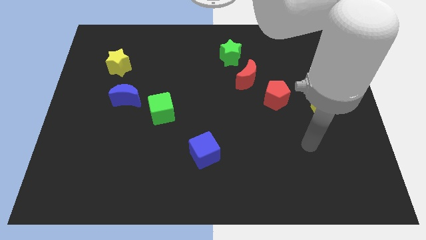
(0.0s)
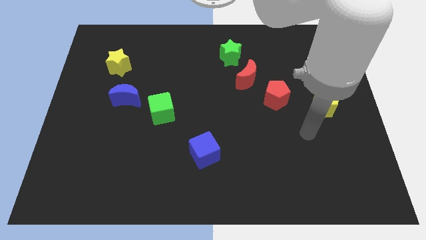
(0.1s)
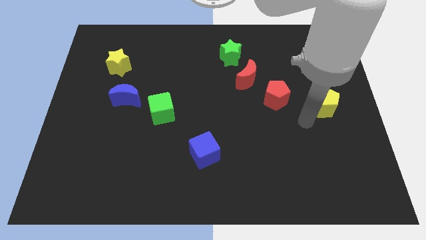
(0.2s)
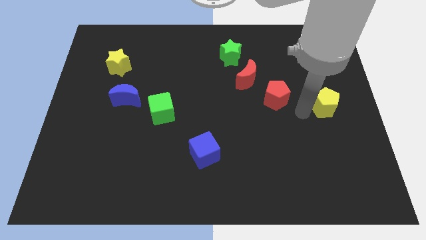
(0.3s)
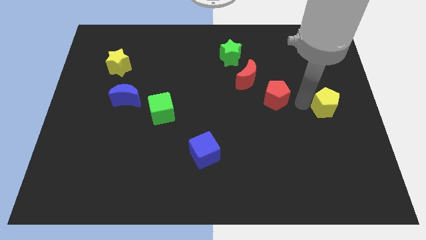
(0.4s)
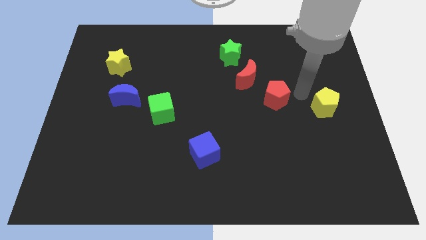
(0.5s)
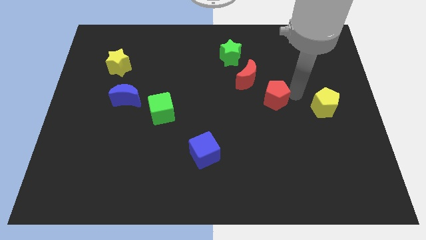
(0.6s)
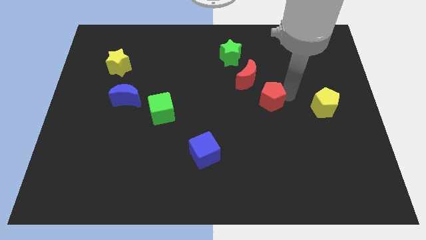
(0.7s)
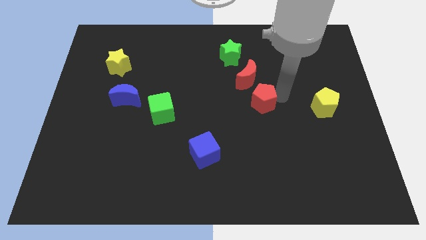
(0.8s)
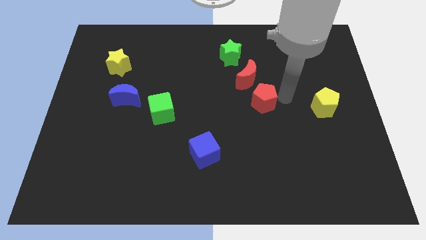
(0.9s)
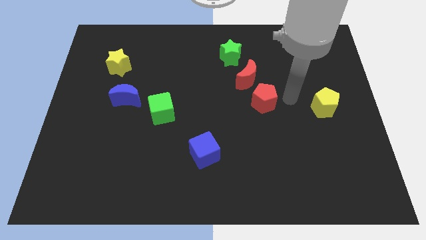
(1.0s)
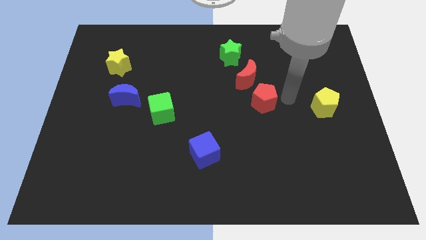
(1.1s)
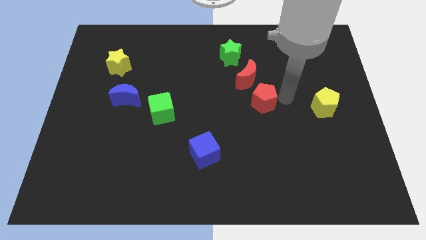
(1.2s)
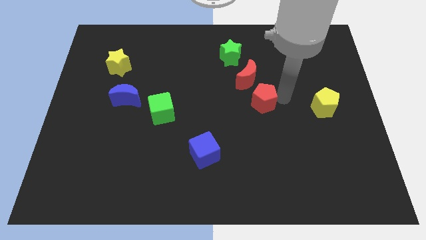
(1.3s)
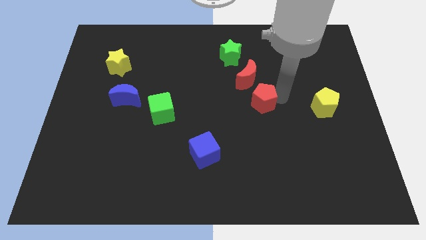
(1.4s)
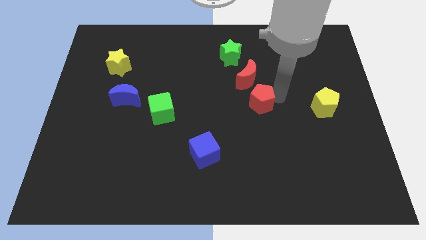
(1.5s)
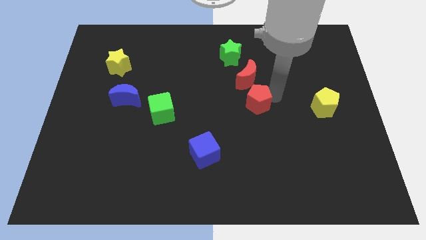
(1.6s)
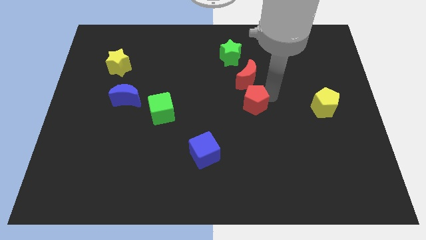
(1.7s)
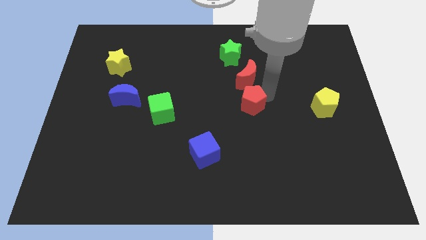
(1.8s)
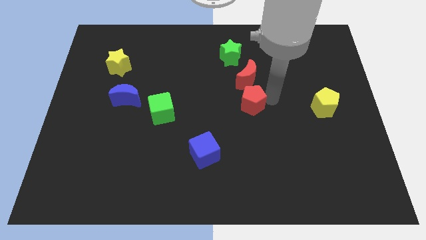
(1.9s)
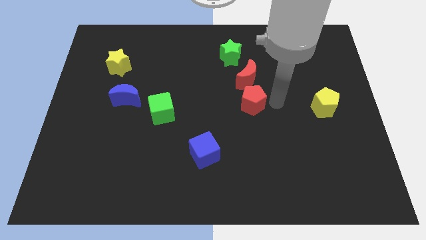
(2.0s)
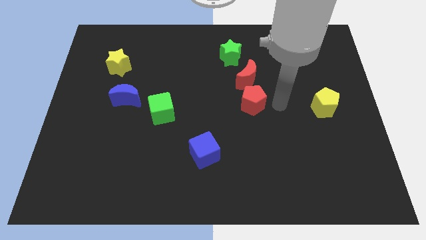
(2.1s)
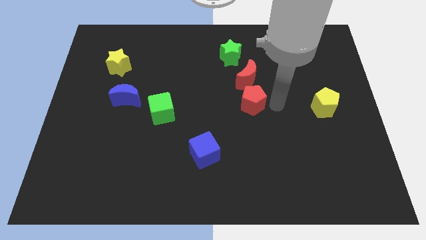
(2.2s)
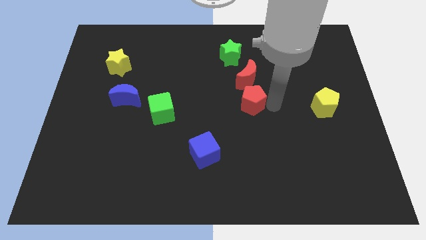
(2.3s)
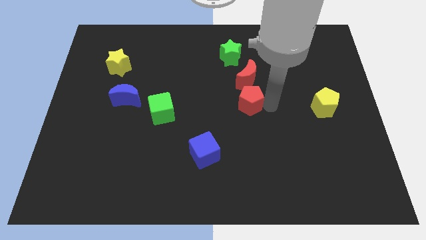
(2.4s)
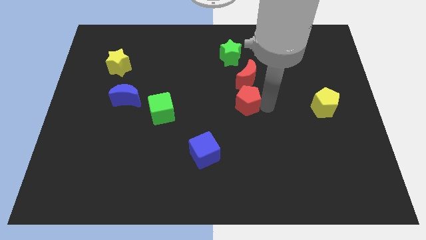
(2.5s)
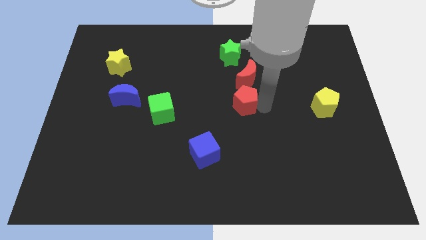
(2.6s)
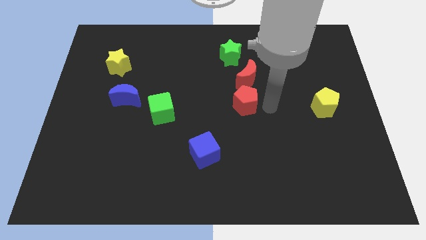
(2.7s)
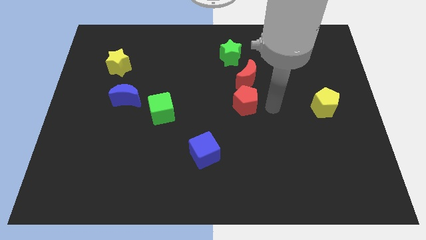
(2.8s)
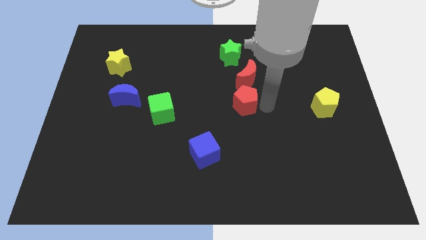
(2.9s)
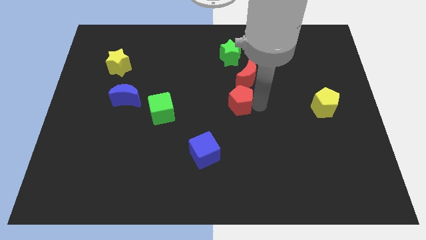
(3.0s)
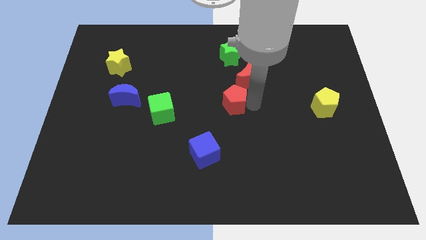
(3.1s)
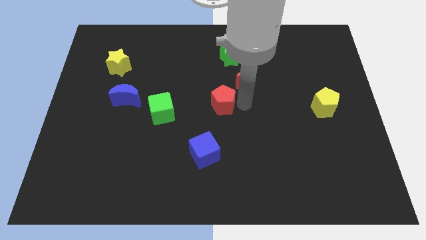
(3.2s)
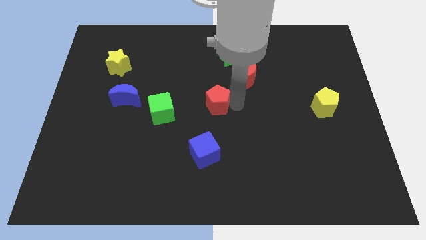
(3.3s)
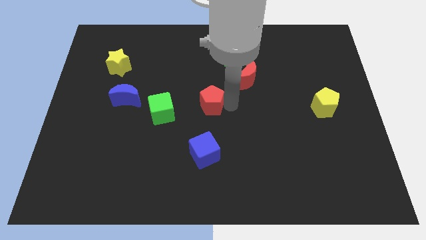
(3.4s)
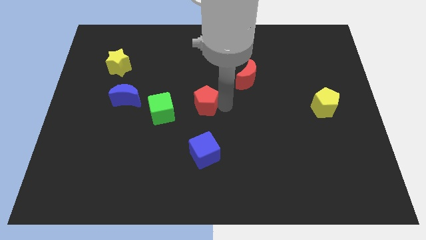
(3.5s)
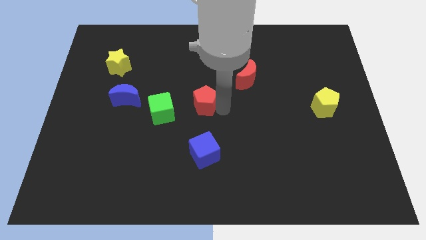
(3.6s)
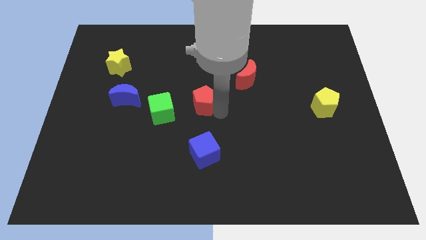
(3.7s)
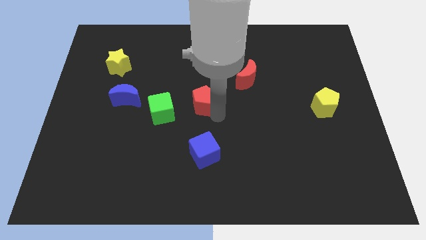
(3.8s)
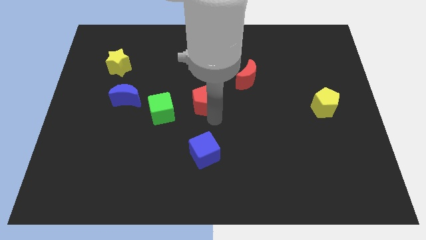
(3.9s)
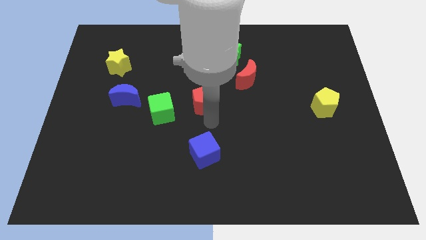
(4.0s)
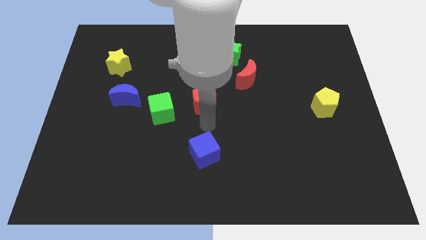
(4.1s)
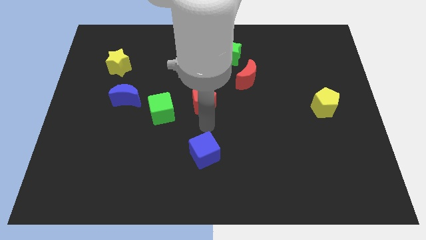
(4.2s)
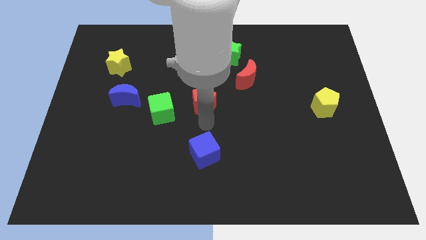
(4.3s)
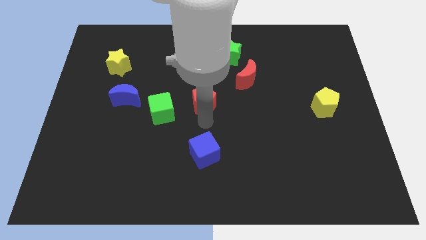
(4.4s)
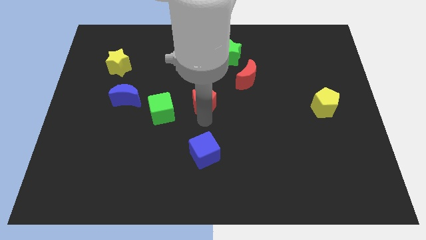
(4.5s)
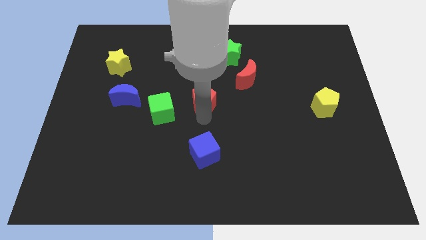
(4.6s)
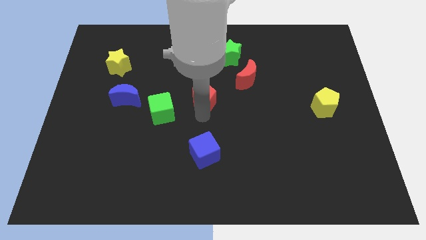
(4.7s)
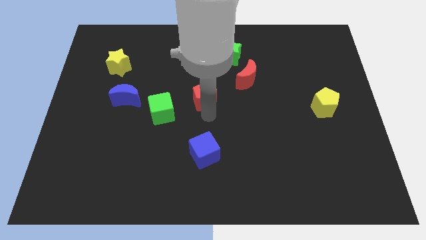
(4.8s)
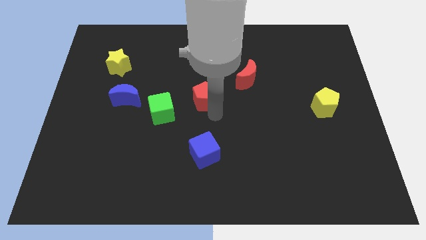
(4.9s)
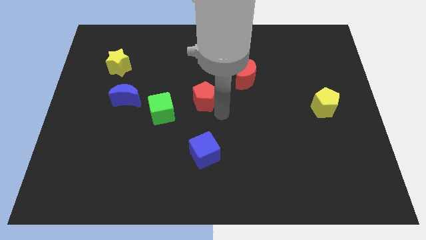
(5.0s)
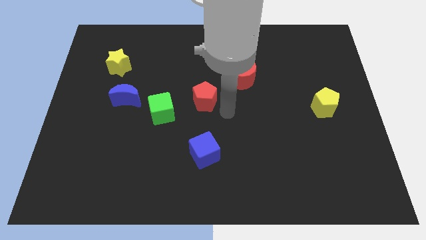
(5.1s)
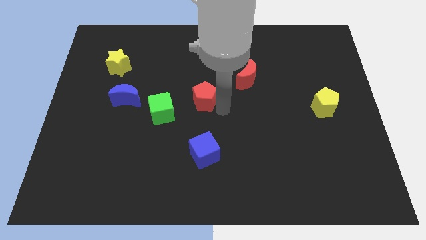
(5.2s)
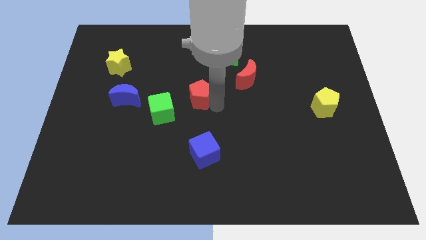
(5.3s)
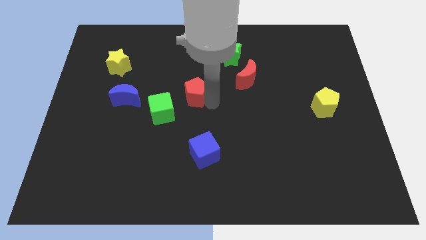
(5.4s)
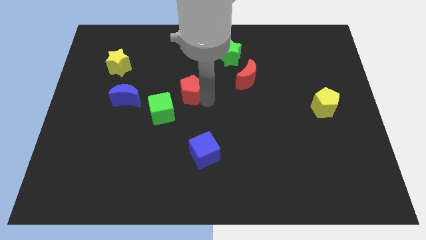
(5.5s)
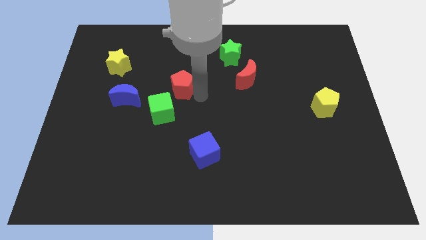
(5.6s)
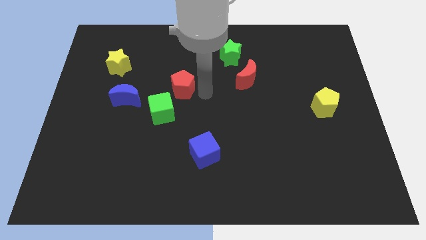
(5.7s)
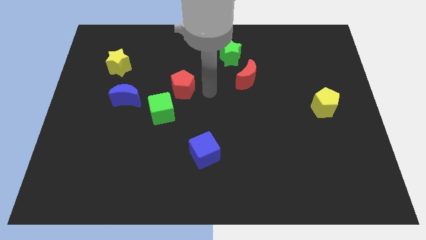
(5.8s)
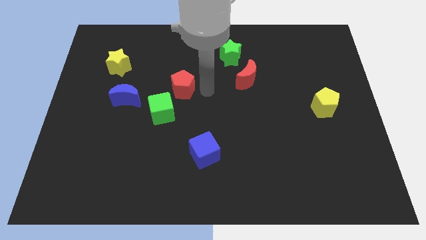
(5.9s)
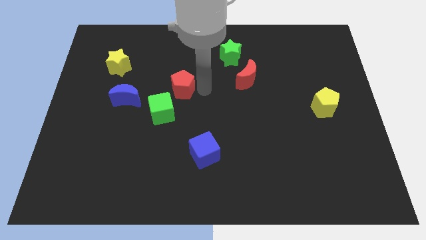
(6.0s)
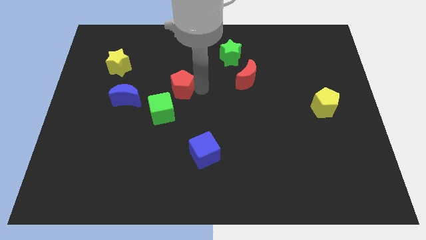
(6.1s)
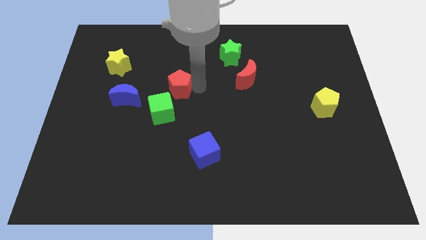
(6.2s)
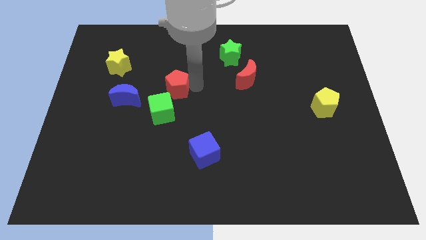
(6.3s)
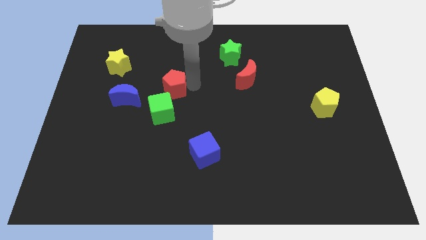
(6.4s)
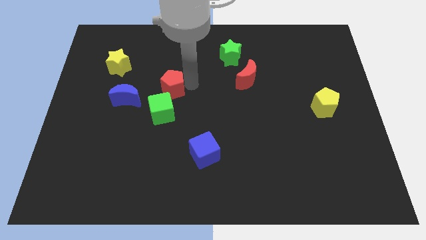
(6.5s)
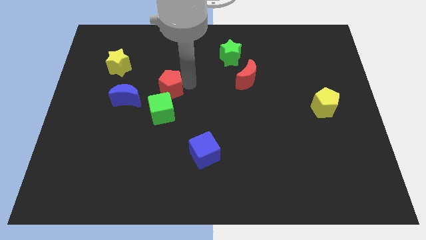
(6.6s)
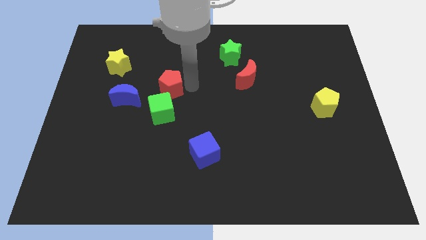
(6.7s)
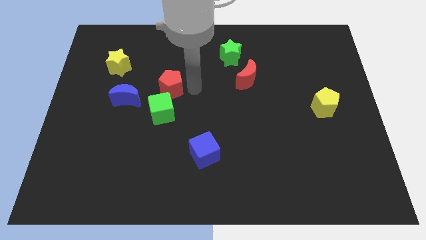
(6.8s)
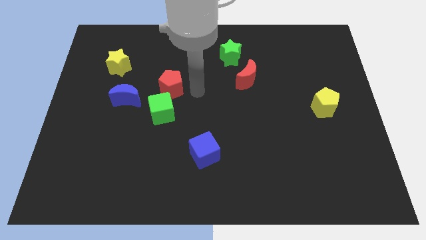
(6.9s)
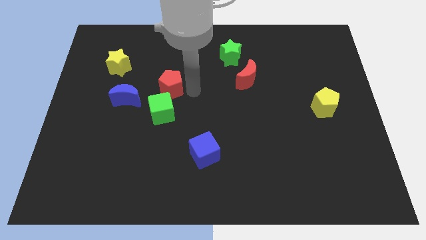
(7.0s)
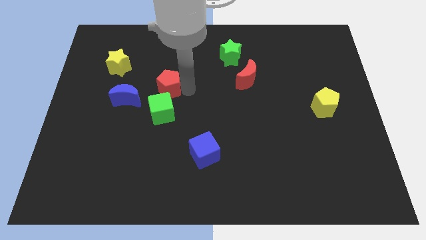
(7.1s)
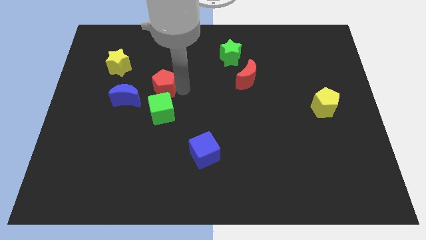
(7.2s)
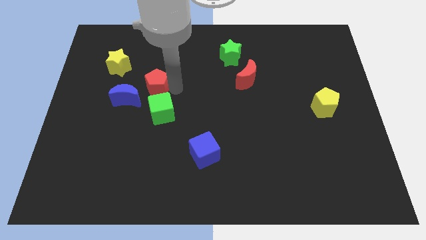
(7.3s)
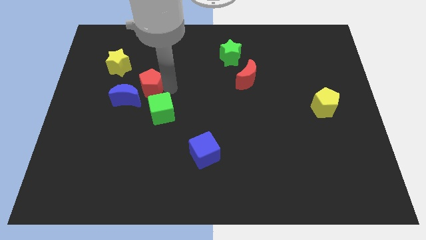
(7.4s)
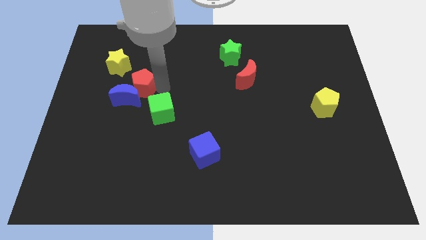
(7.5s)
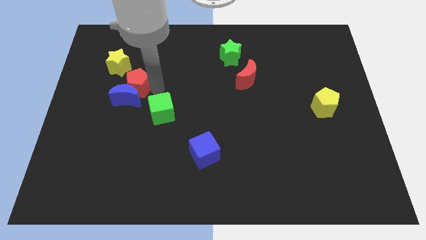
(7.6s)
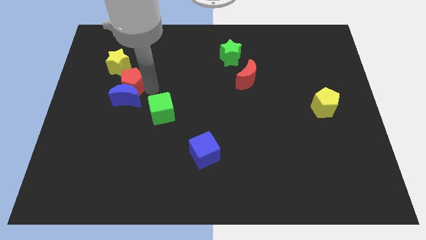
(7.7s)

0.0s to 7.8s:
push the red pentagon to the top left side of the blue moon
